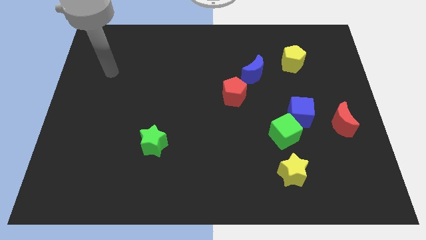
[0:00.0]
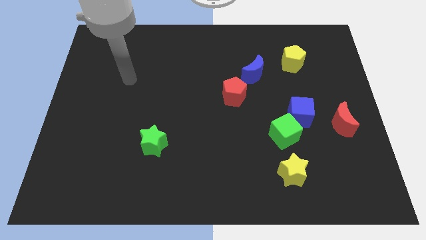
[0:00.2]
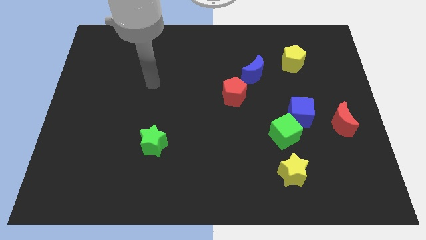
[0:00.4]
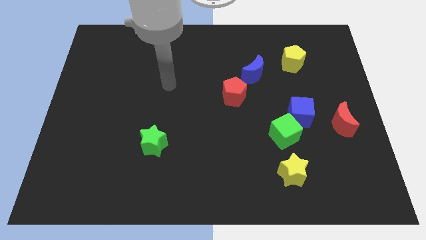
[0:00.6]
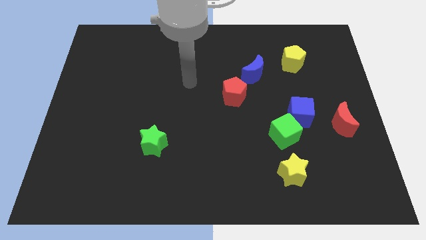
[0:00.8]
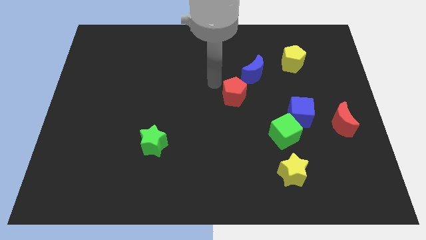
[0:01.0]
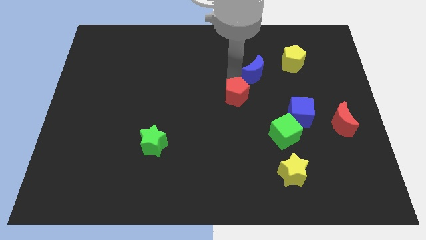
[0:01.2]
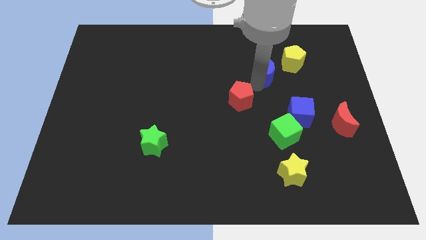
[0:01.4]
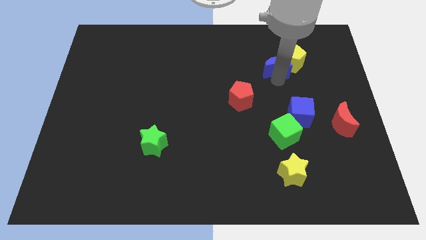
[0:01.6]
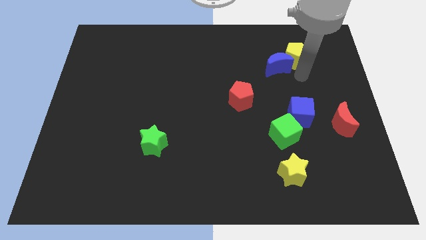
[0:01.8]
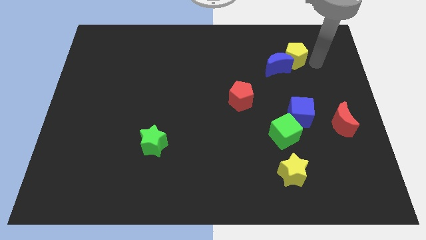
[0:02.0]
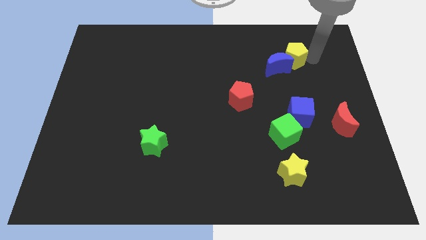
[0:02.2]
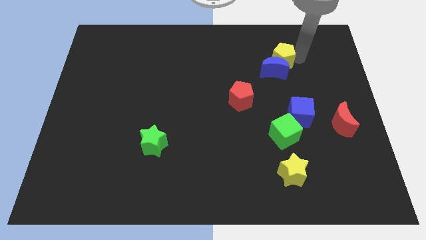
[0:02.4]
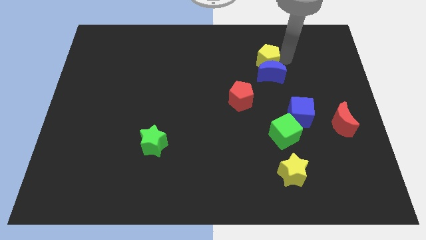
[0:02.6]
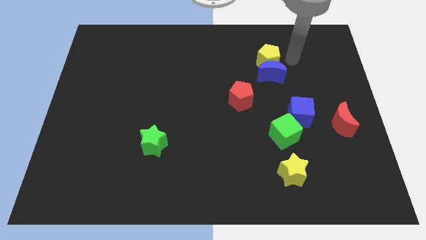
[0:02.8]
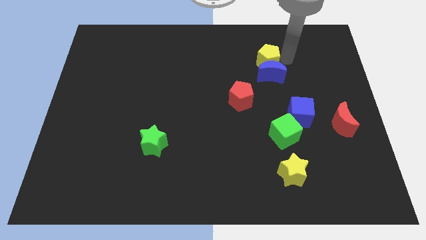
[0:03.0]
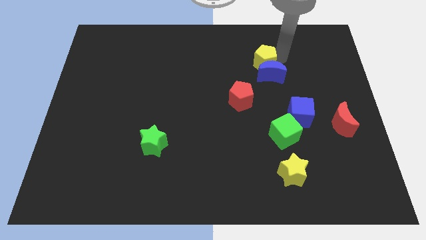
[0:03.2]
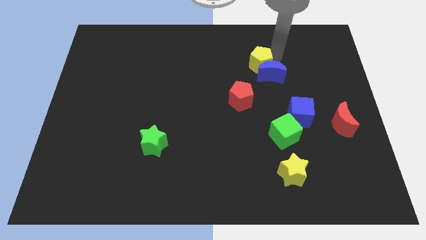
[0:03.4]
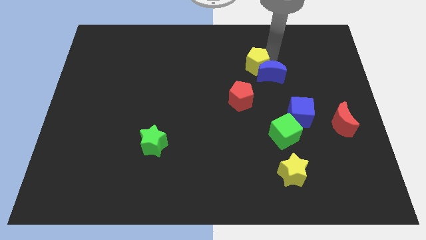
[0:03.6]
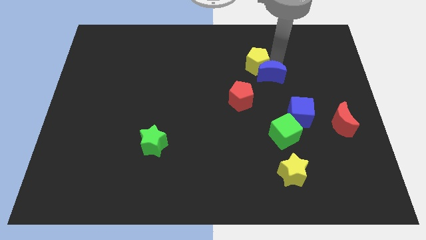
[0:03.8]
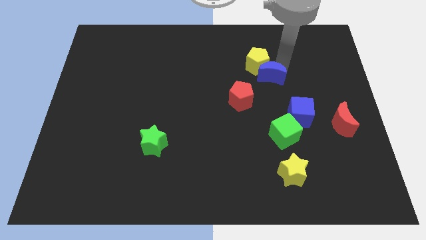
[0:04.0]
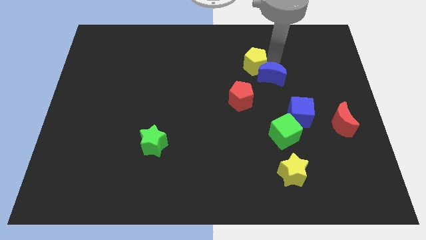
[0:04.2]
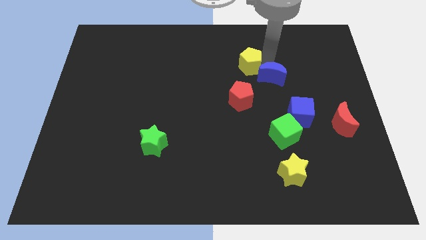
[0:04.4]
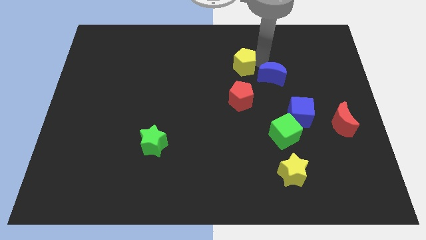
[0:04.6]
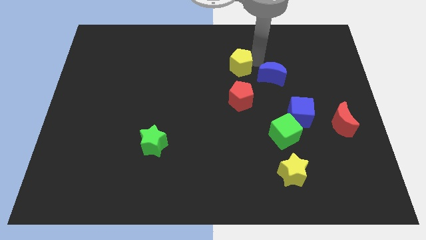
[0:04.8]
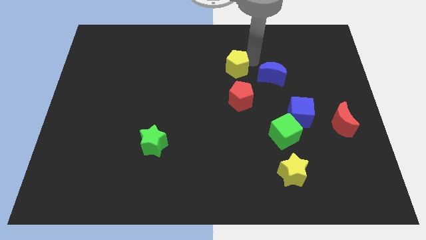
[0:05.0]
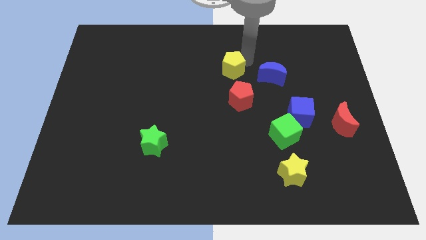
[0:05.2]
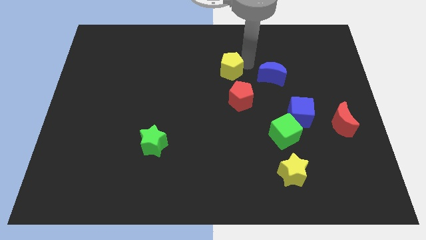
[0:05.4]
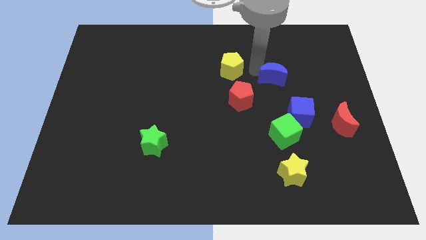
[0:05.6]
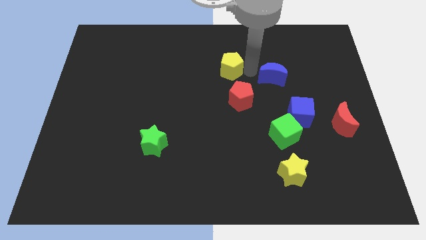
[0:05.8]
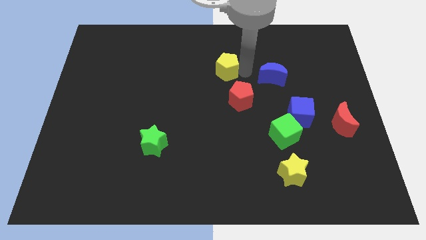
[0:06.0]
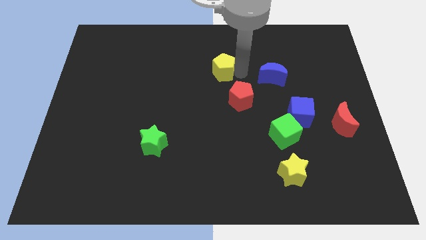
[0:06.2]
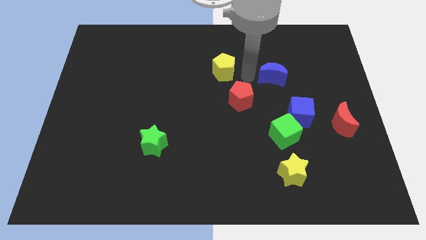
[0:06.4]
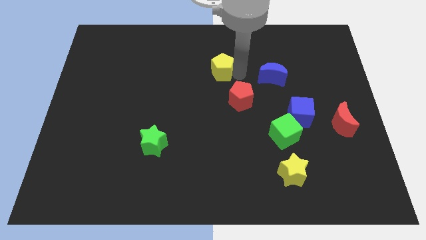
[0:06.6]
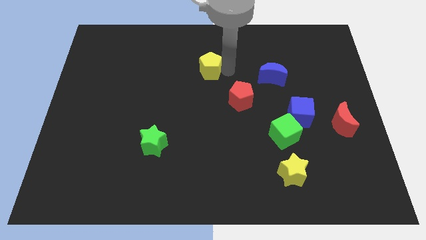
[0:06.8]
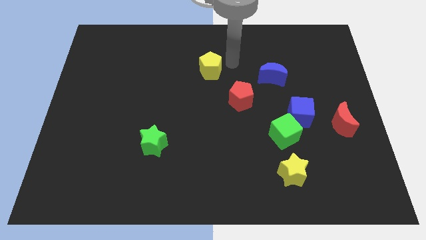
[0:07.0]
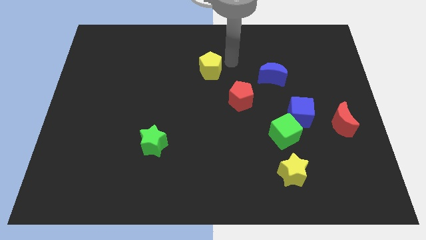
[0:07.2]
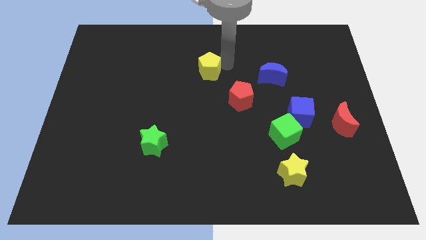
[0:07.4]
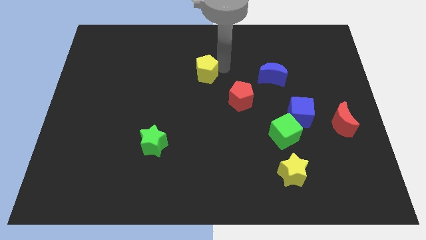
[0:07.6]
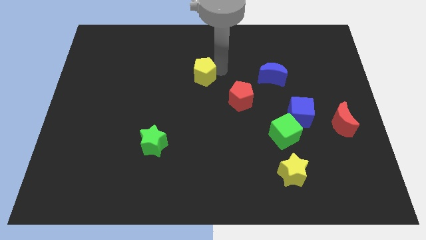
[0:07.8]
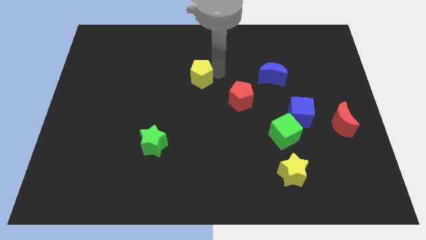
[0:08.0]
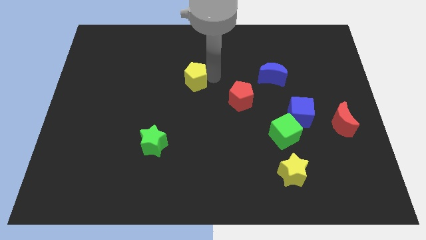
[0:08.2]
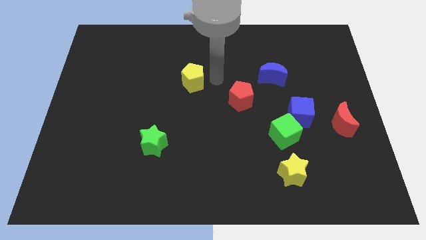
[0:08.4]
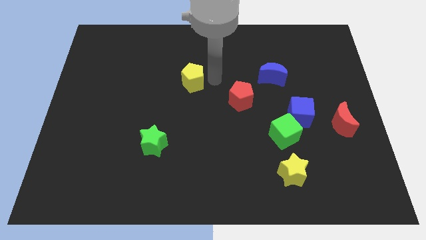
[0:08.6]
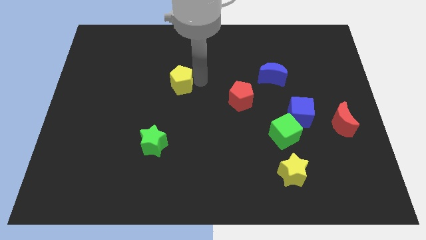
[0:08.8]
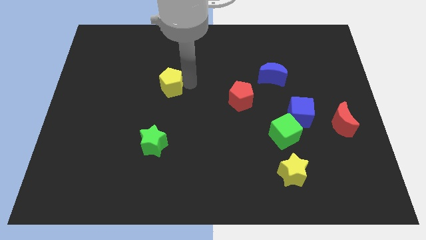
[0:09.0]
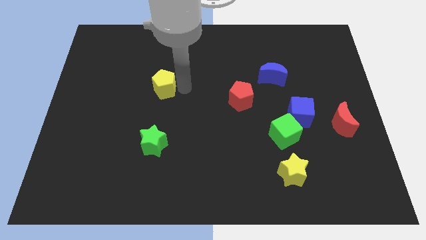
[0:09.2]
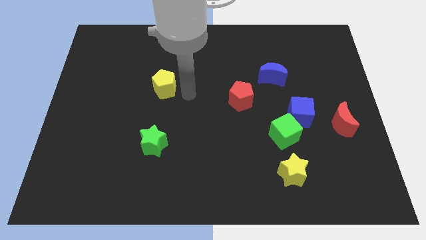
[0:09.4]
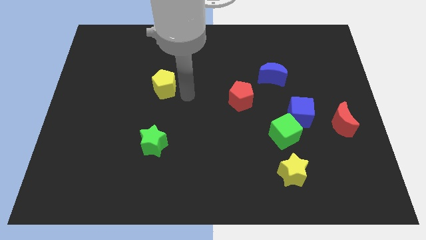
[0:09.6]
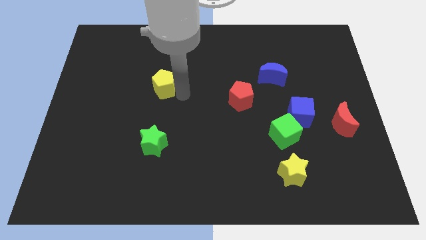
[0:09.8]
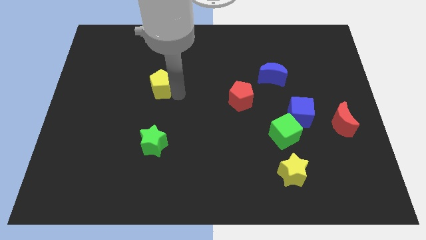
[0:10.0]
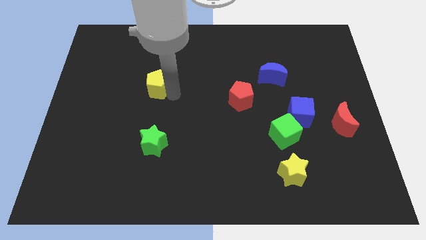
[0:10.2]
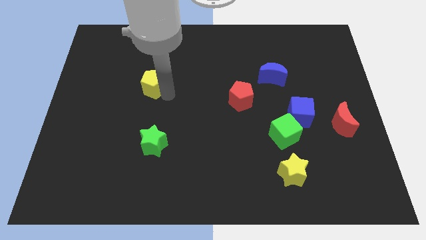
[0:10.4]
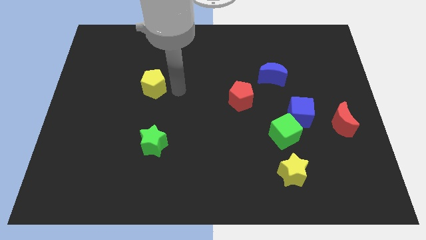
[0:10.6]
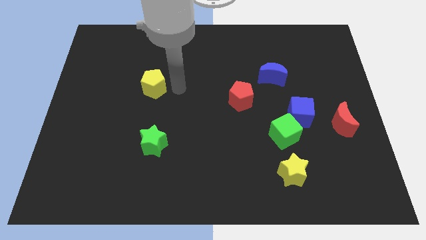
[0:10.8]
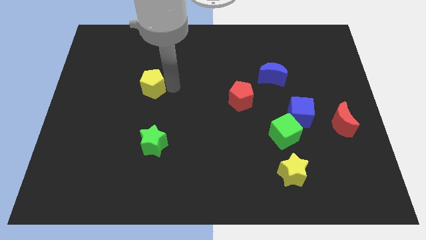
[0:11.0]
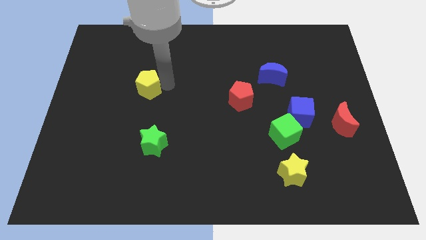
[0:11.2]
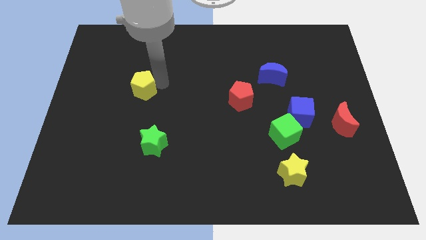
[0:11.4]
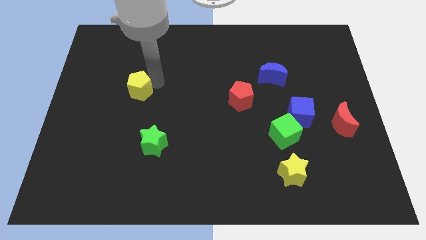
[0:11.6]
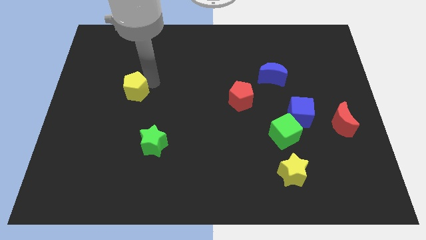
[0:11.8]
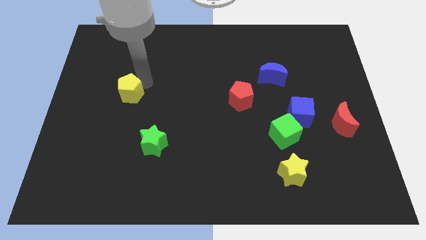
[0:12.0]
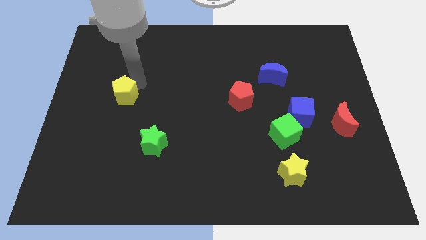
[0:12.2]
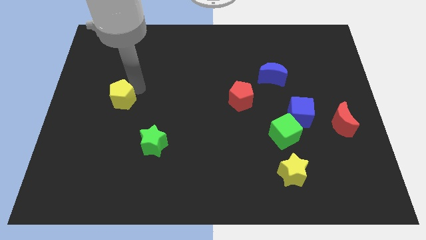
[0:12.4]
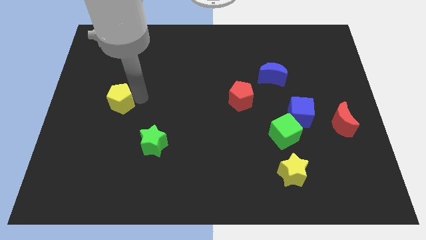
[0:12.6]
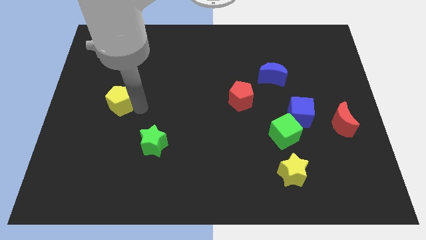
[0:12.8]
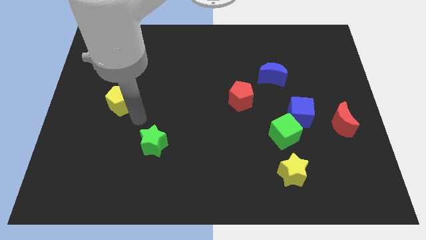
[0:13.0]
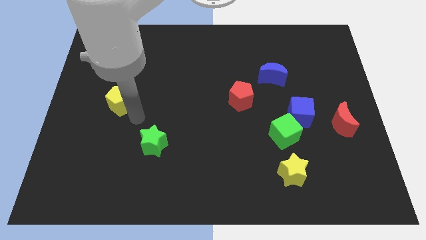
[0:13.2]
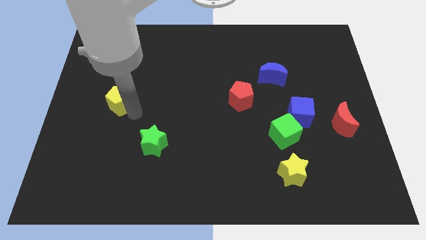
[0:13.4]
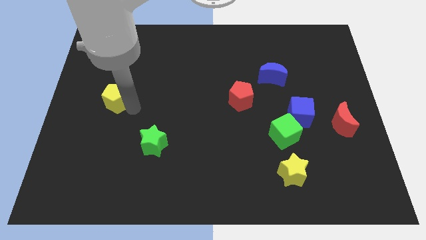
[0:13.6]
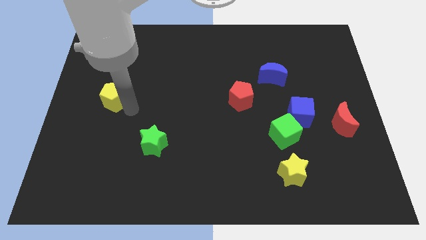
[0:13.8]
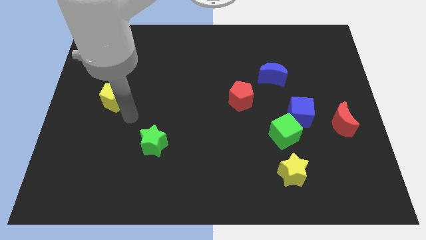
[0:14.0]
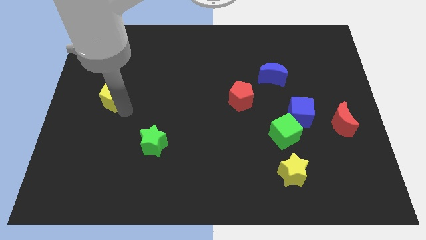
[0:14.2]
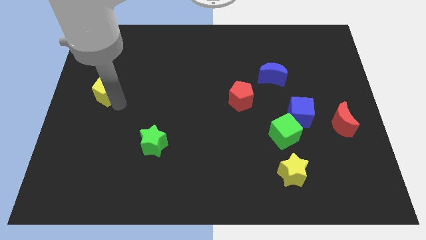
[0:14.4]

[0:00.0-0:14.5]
put the yellow pentagon to the left side
